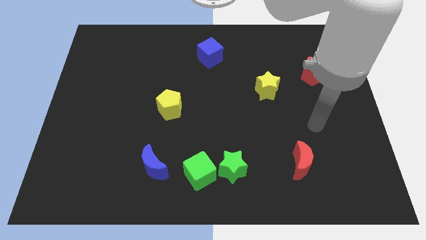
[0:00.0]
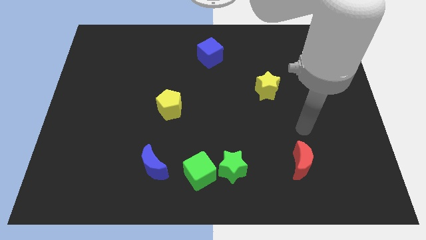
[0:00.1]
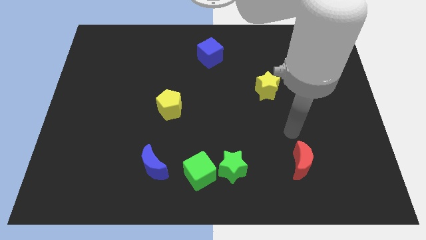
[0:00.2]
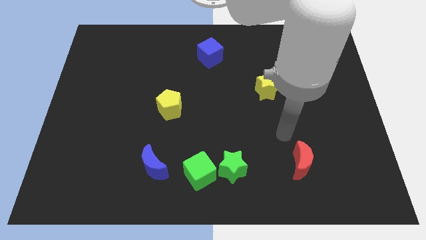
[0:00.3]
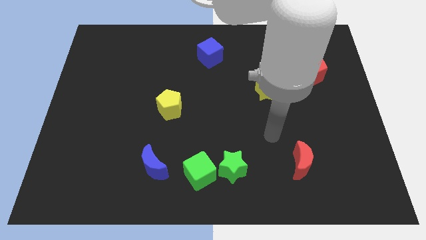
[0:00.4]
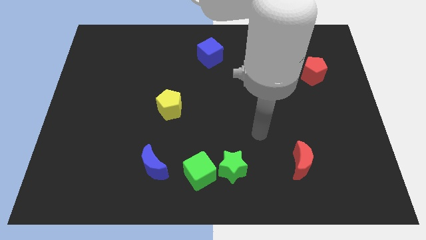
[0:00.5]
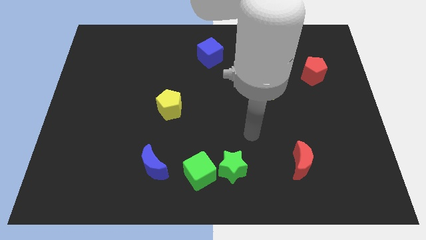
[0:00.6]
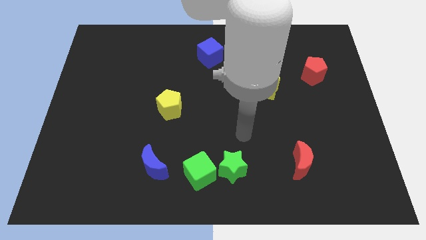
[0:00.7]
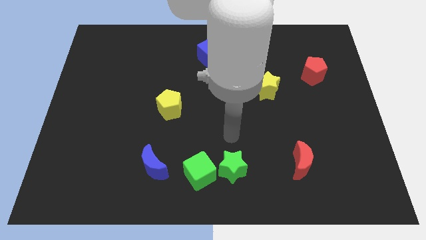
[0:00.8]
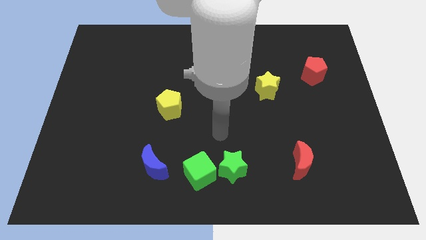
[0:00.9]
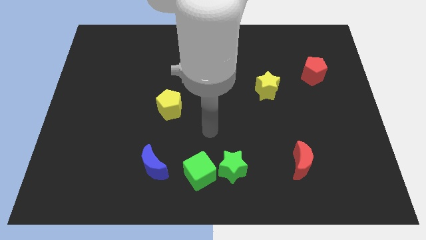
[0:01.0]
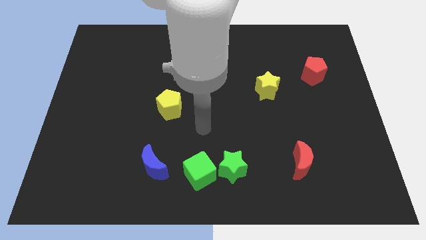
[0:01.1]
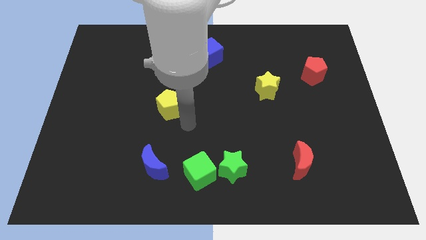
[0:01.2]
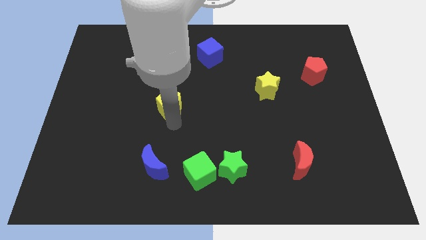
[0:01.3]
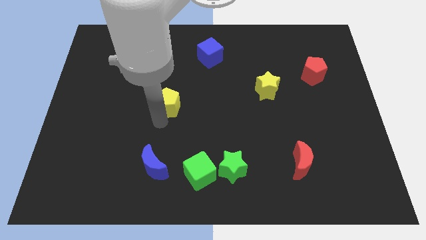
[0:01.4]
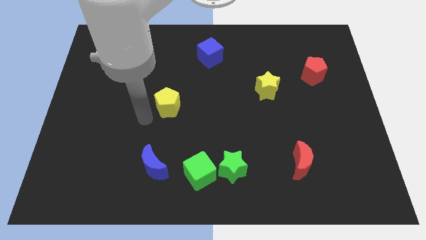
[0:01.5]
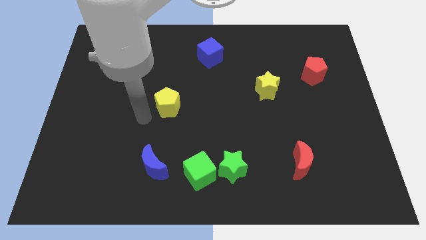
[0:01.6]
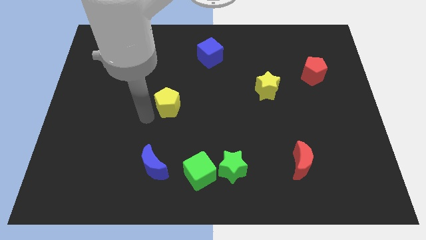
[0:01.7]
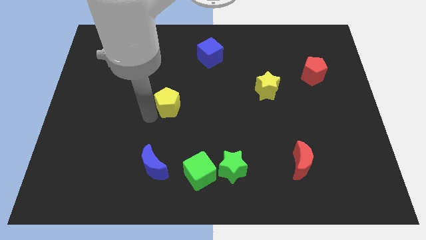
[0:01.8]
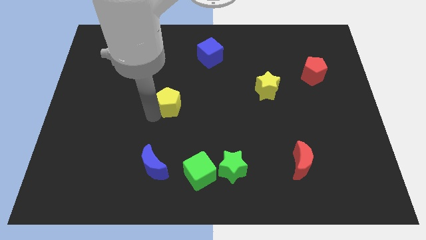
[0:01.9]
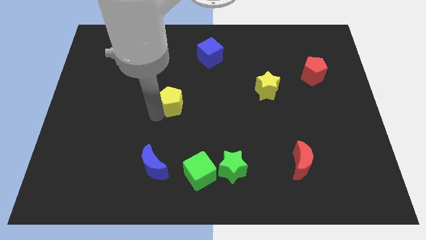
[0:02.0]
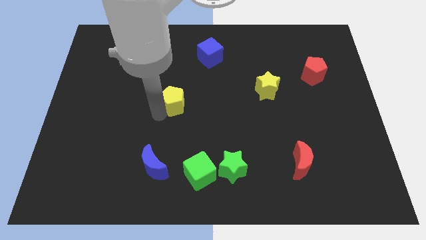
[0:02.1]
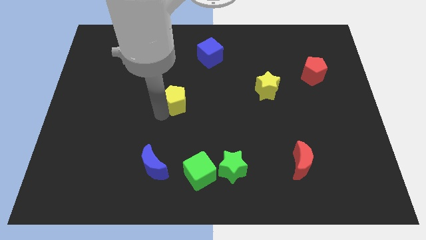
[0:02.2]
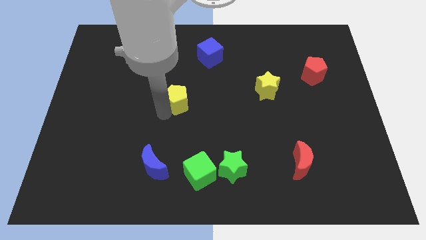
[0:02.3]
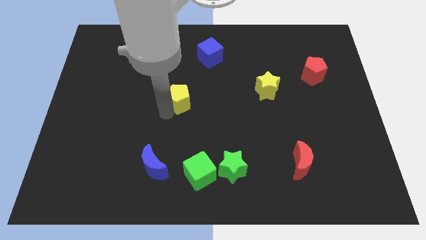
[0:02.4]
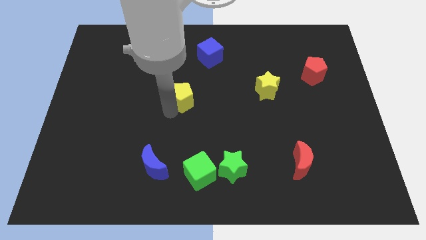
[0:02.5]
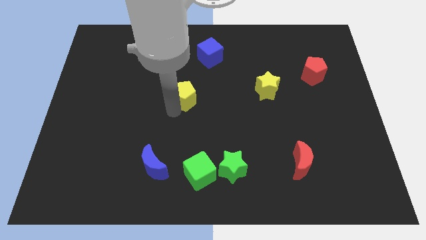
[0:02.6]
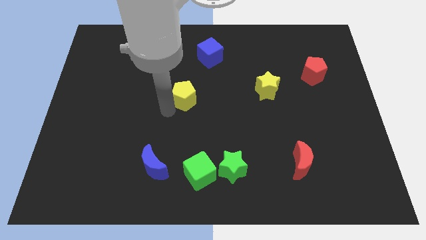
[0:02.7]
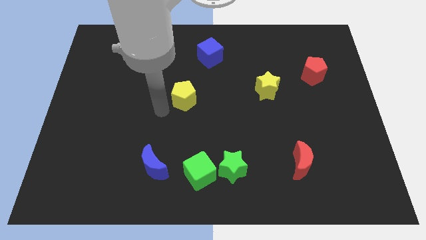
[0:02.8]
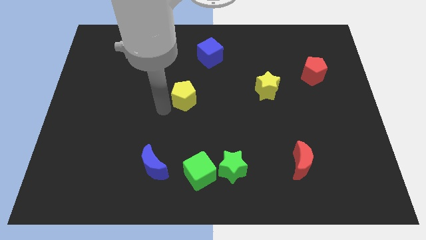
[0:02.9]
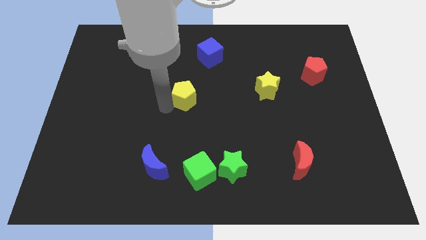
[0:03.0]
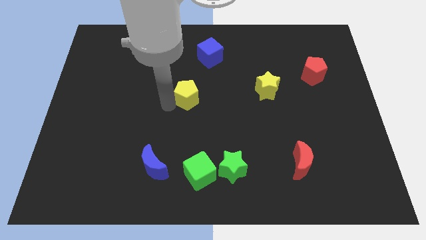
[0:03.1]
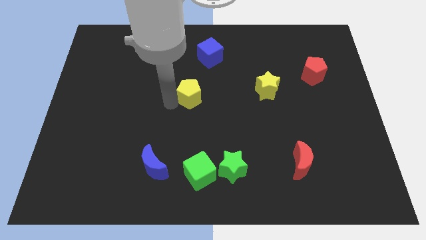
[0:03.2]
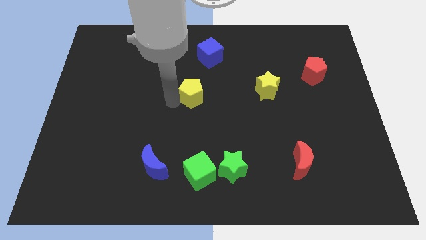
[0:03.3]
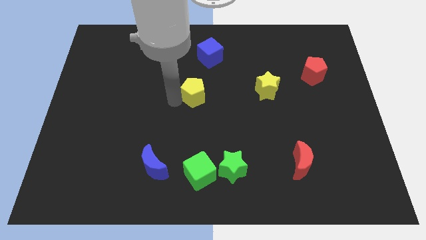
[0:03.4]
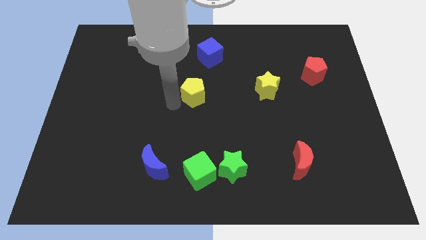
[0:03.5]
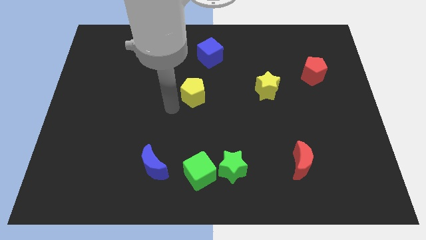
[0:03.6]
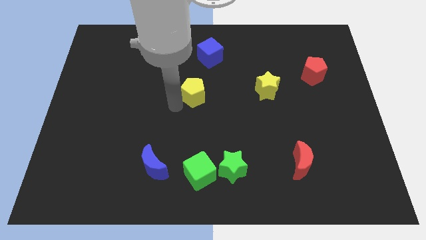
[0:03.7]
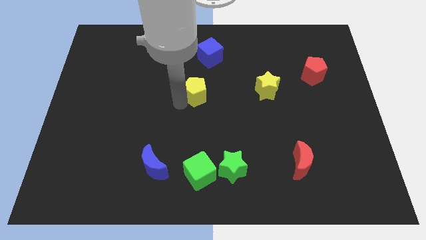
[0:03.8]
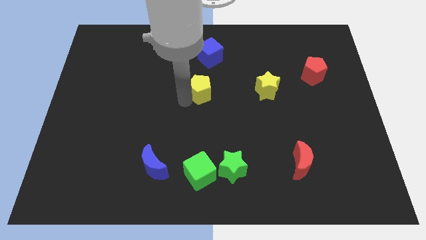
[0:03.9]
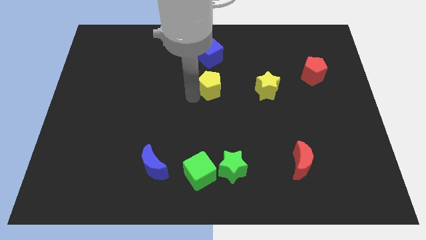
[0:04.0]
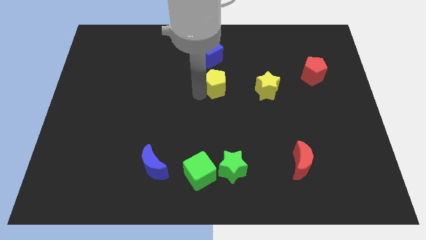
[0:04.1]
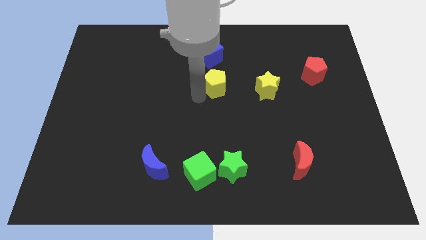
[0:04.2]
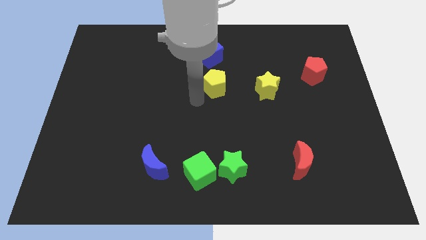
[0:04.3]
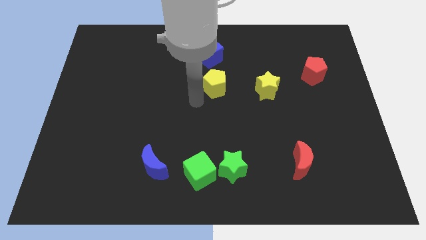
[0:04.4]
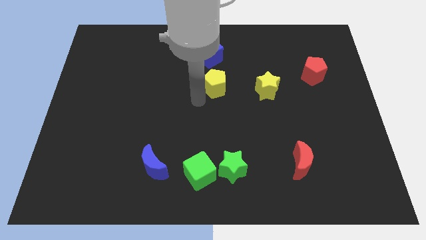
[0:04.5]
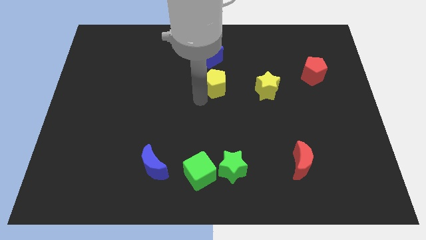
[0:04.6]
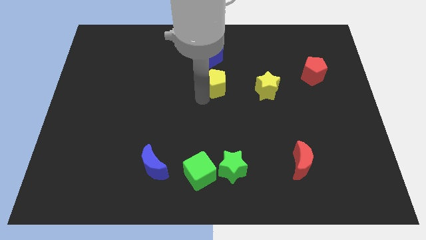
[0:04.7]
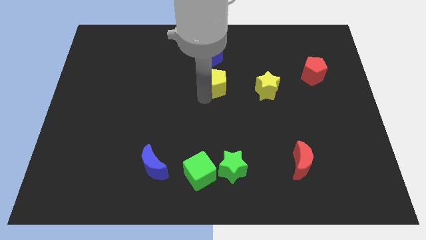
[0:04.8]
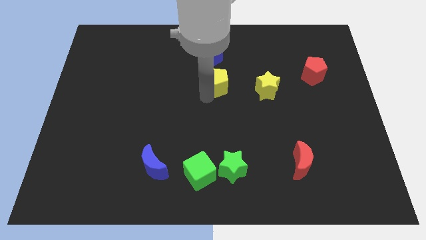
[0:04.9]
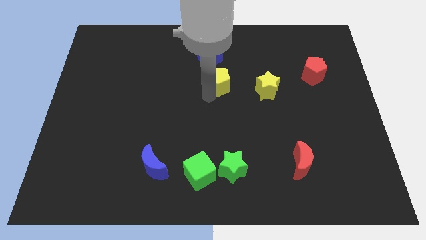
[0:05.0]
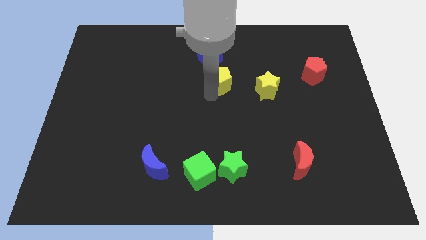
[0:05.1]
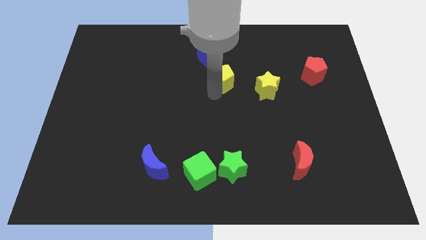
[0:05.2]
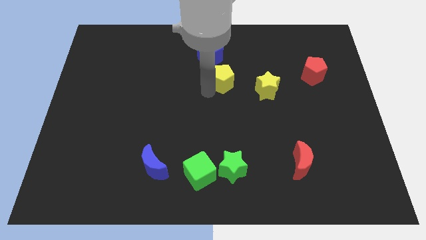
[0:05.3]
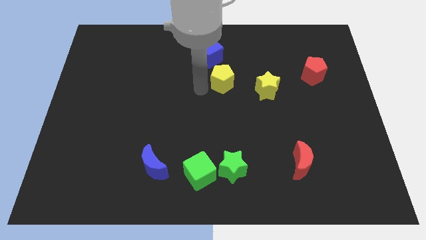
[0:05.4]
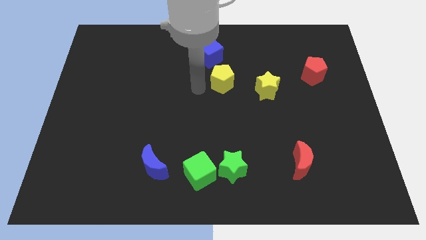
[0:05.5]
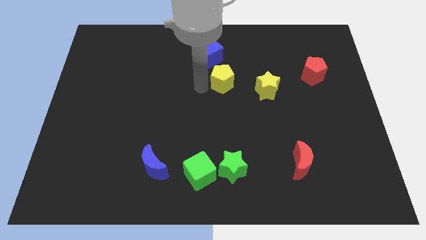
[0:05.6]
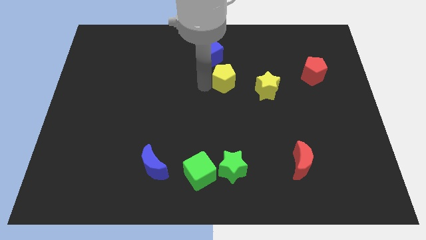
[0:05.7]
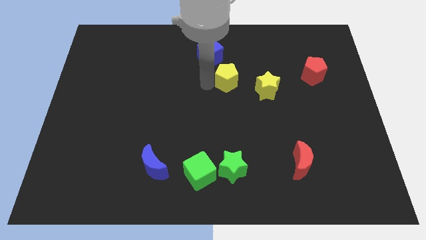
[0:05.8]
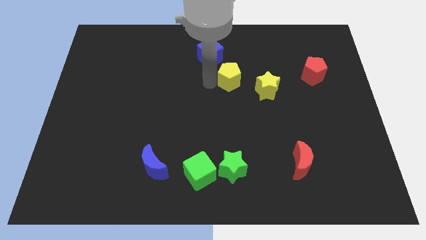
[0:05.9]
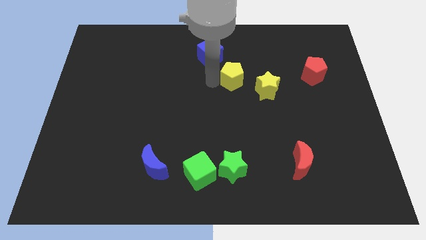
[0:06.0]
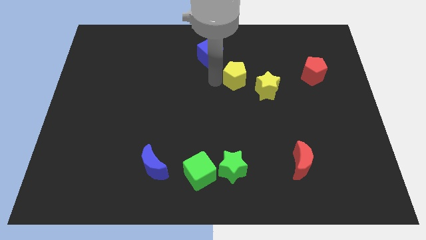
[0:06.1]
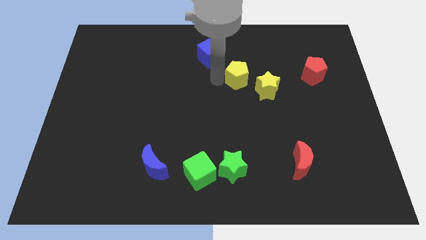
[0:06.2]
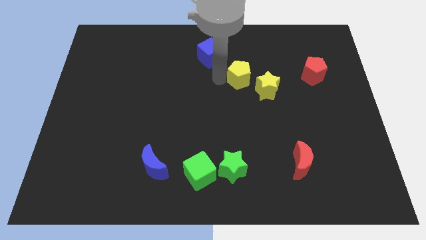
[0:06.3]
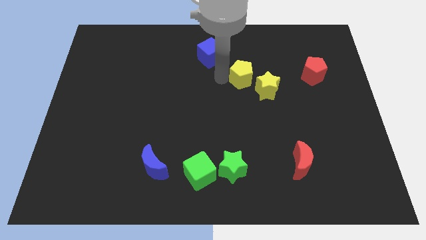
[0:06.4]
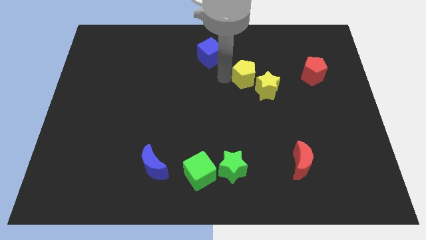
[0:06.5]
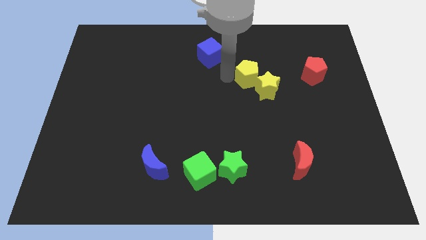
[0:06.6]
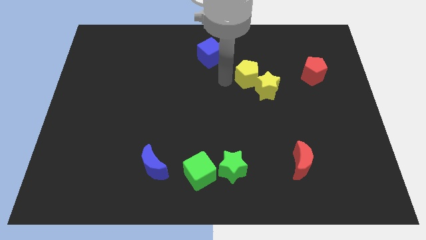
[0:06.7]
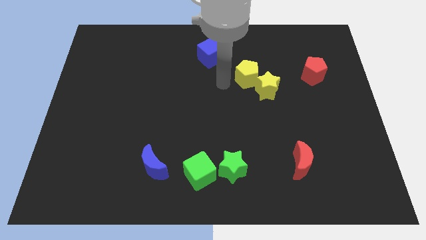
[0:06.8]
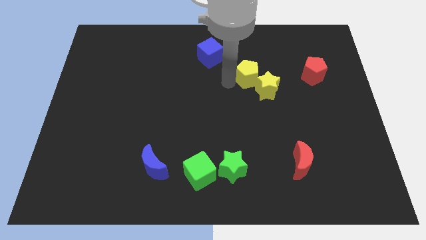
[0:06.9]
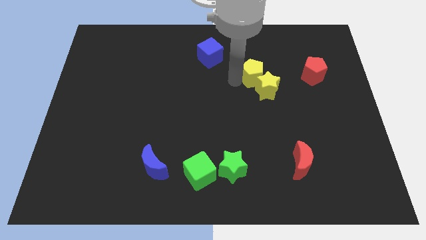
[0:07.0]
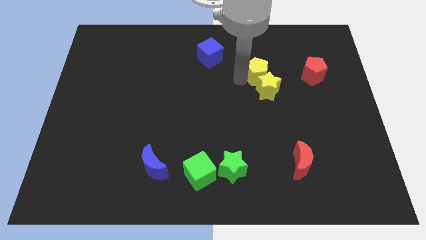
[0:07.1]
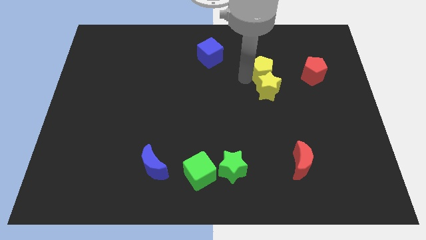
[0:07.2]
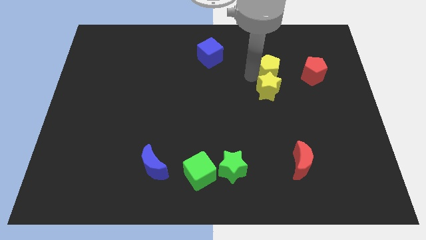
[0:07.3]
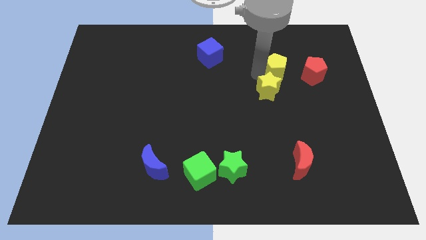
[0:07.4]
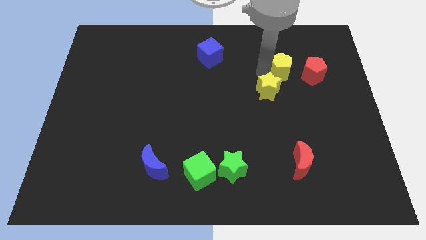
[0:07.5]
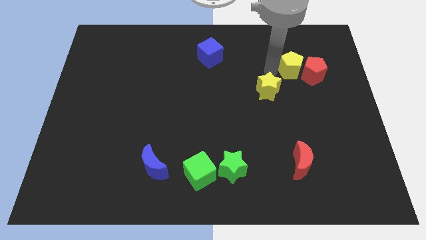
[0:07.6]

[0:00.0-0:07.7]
push the yellow pentagon close to the red pentagon
